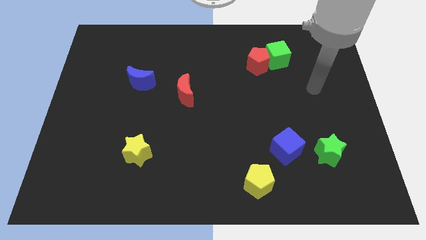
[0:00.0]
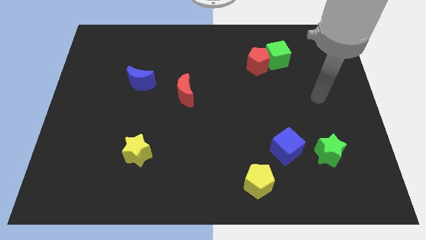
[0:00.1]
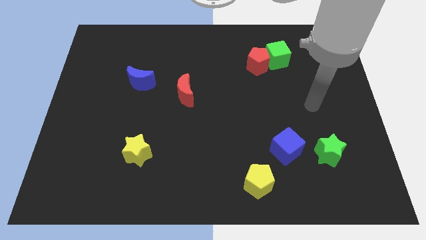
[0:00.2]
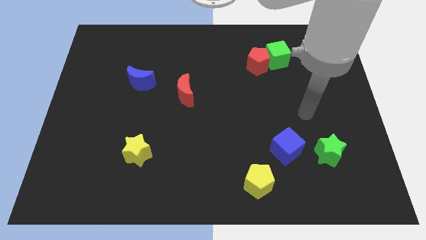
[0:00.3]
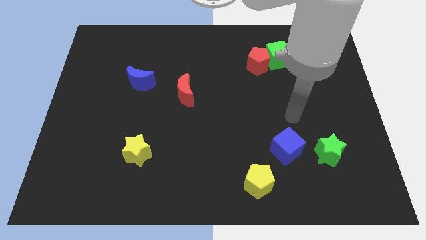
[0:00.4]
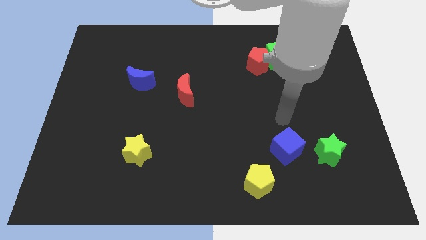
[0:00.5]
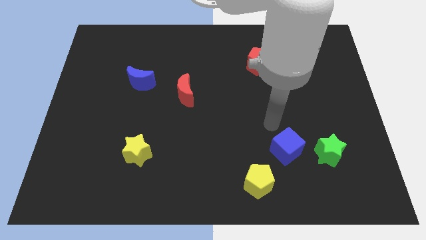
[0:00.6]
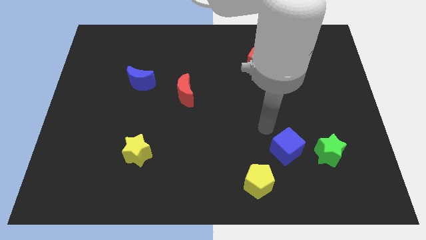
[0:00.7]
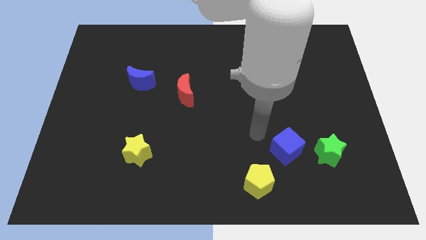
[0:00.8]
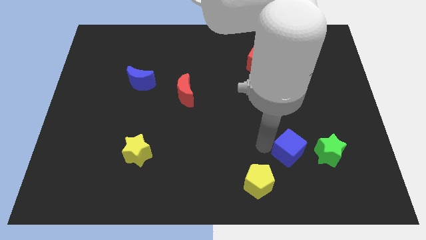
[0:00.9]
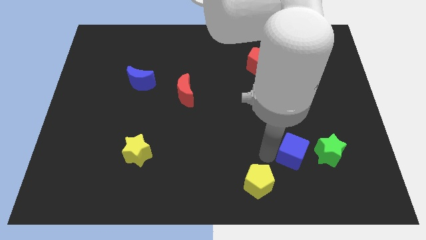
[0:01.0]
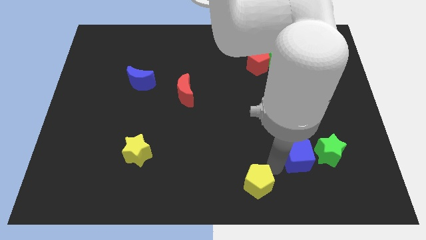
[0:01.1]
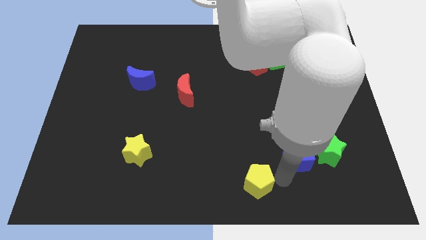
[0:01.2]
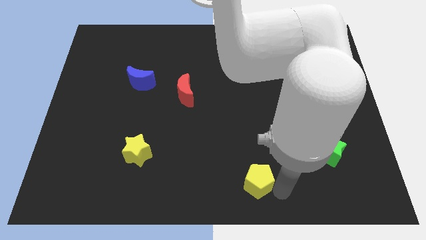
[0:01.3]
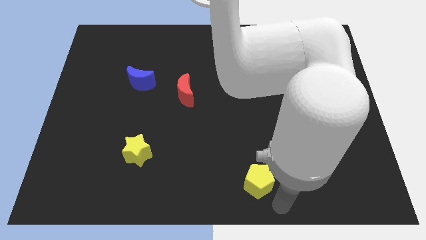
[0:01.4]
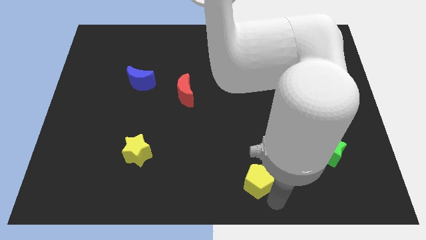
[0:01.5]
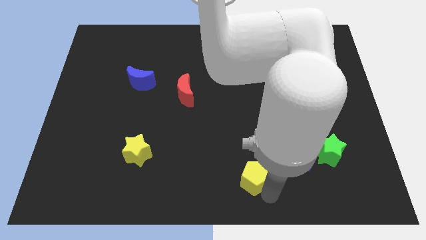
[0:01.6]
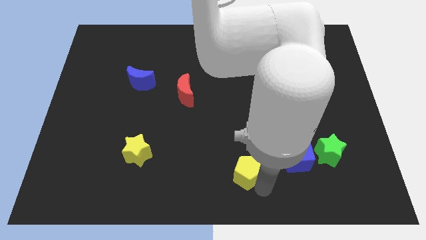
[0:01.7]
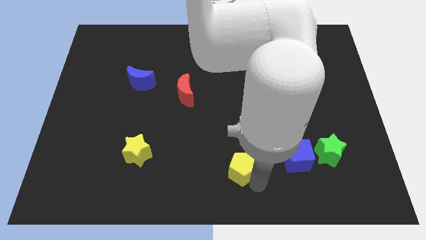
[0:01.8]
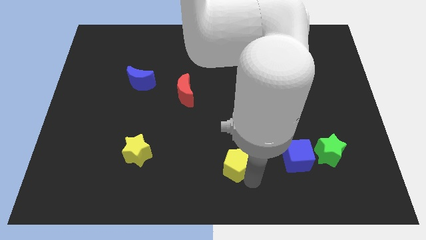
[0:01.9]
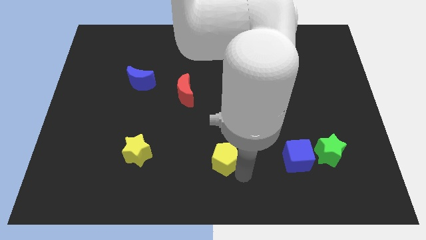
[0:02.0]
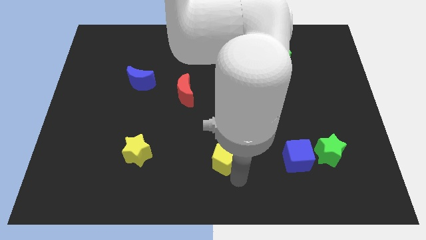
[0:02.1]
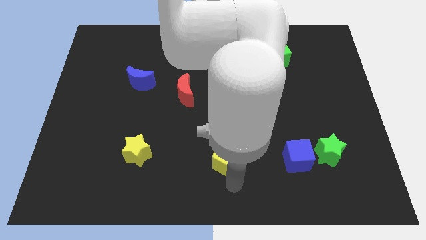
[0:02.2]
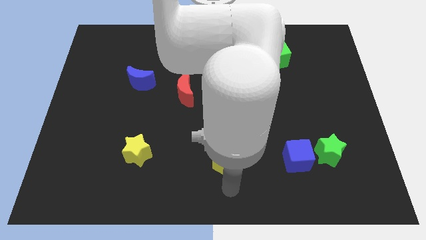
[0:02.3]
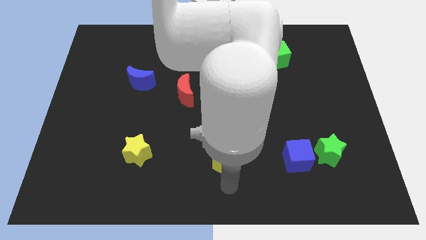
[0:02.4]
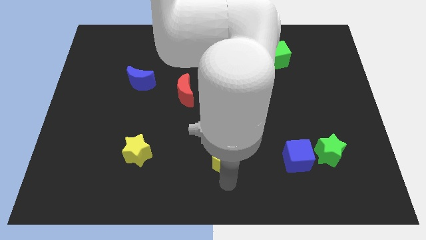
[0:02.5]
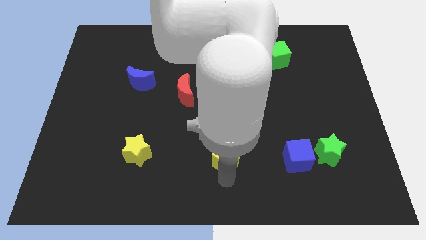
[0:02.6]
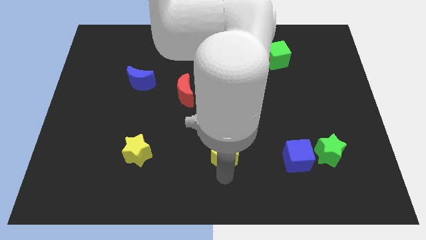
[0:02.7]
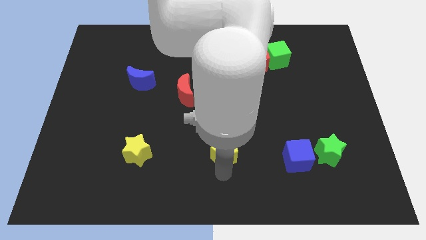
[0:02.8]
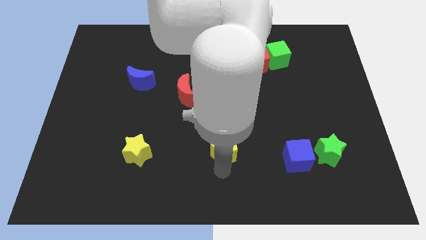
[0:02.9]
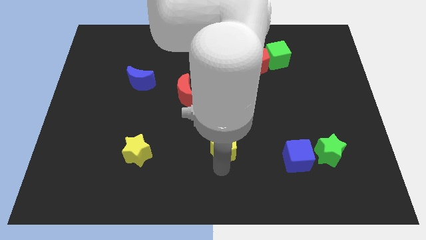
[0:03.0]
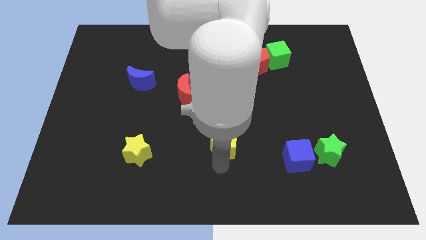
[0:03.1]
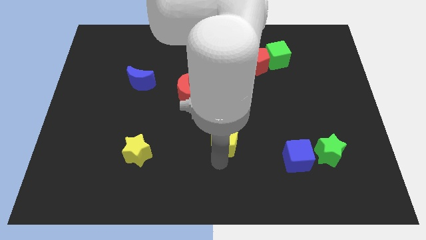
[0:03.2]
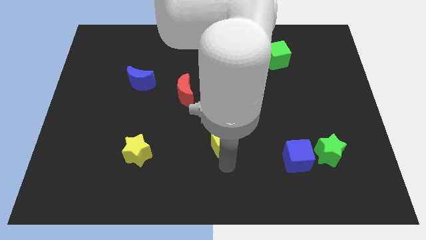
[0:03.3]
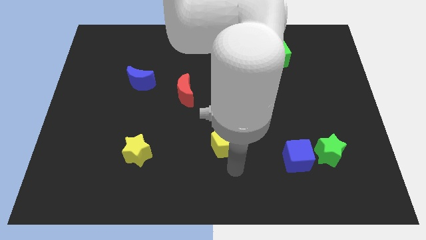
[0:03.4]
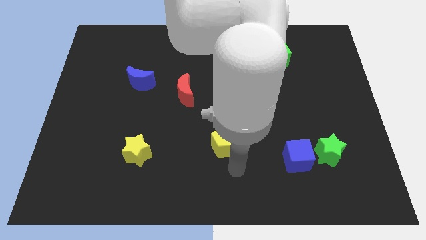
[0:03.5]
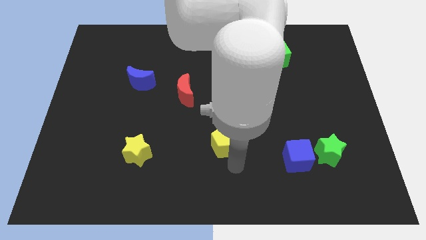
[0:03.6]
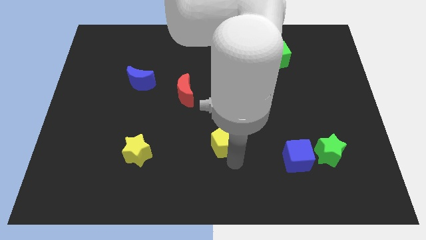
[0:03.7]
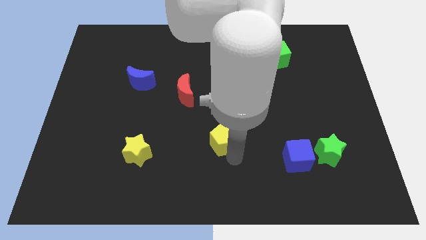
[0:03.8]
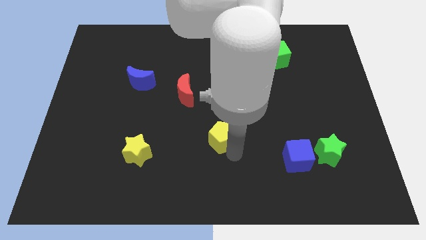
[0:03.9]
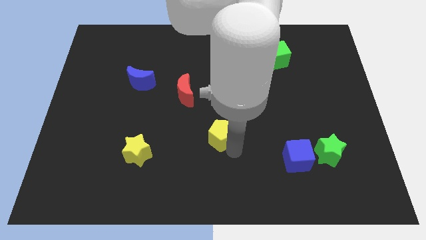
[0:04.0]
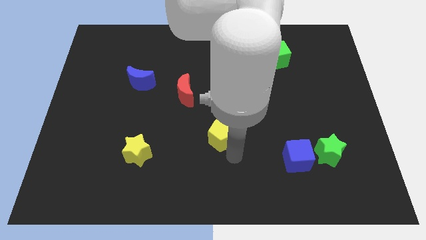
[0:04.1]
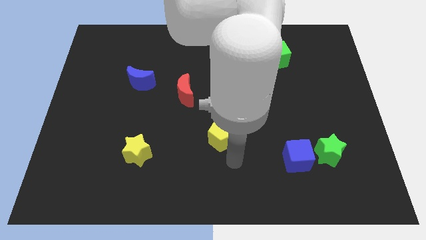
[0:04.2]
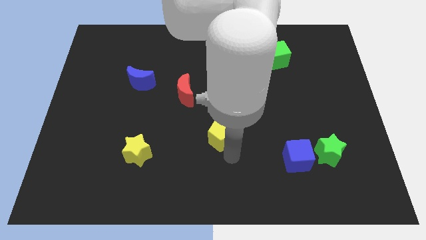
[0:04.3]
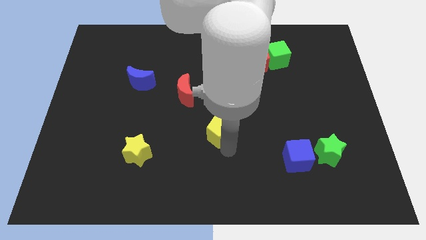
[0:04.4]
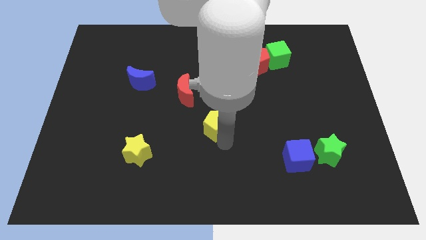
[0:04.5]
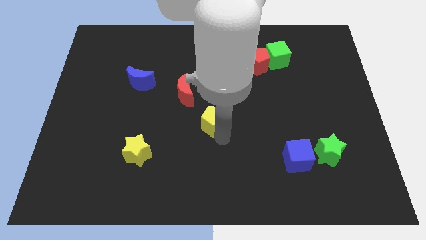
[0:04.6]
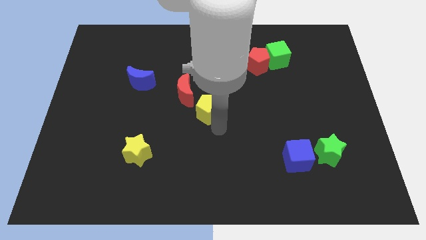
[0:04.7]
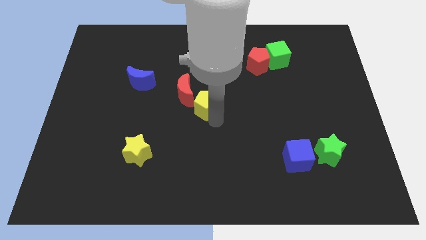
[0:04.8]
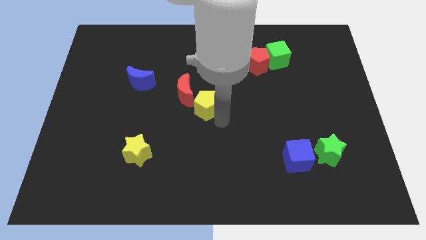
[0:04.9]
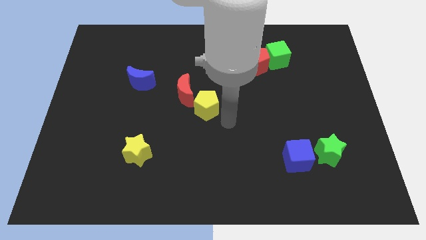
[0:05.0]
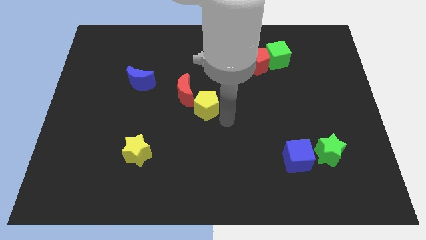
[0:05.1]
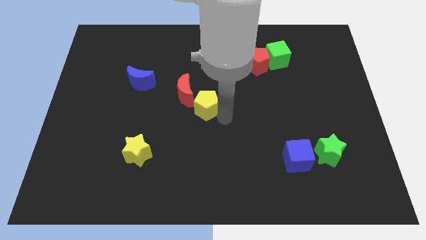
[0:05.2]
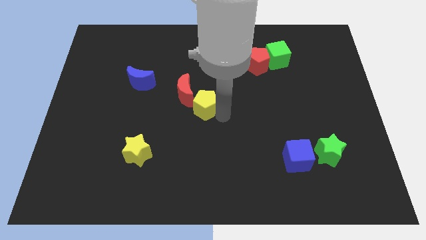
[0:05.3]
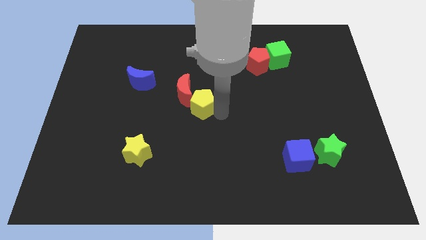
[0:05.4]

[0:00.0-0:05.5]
slide the yellow pentagon to the red moon

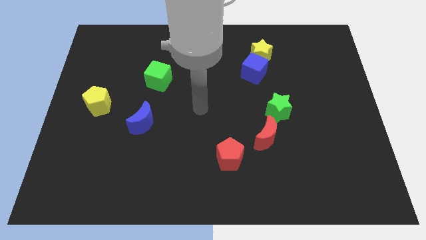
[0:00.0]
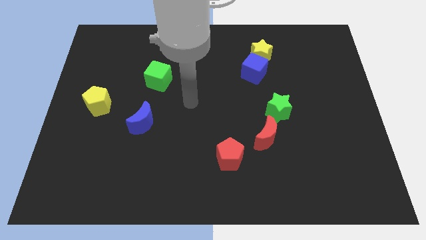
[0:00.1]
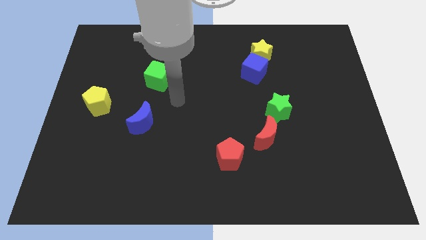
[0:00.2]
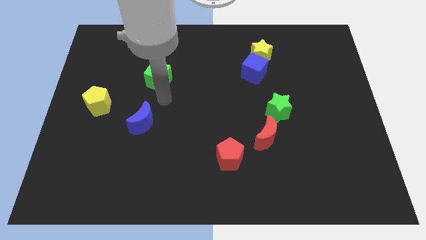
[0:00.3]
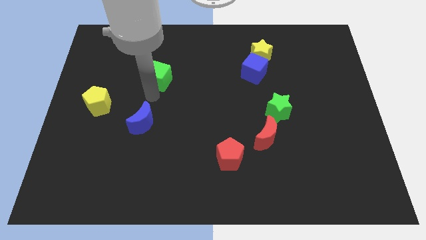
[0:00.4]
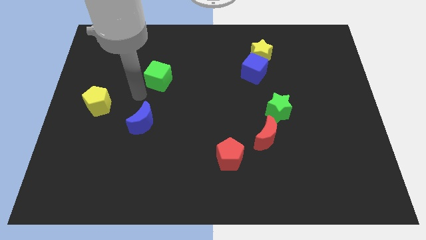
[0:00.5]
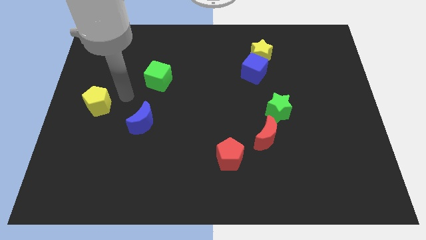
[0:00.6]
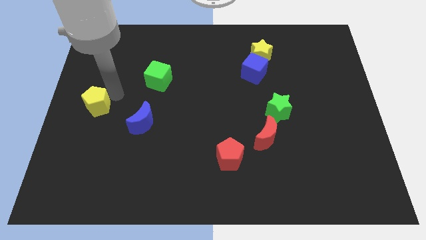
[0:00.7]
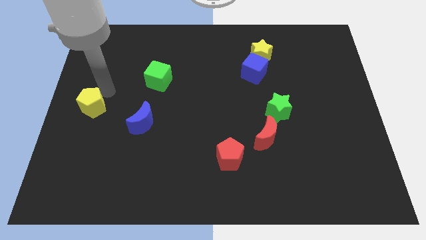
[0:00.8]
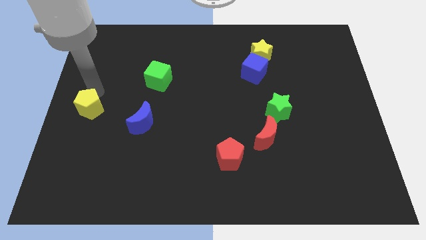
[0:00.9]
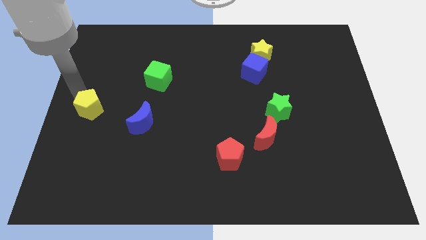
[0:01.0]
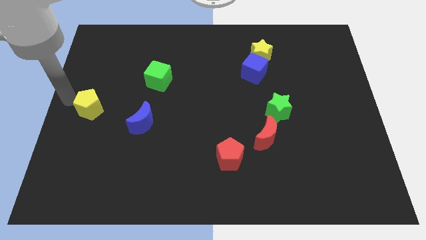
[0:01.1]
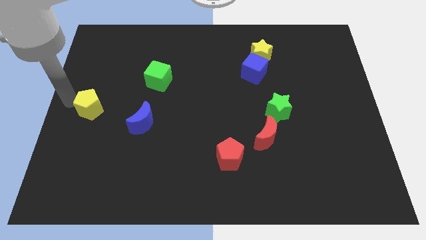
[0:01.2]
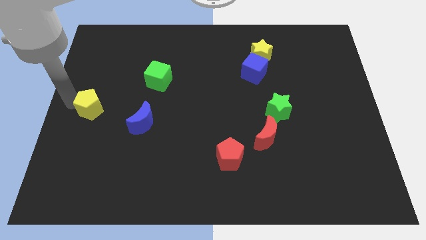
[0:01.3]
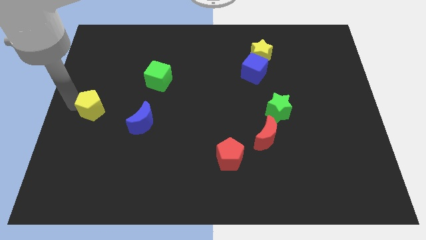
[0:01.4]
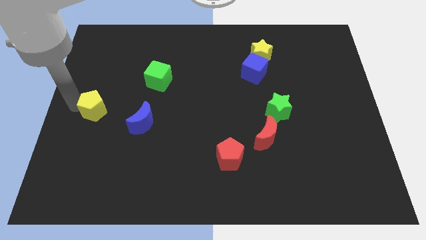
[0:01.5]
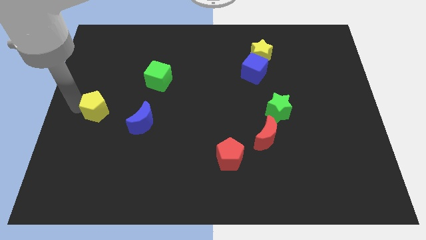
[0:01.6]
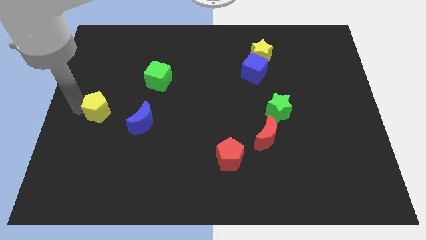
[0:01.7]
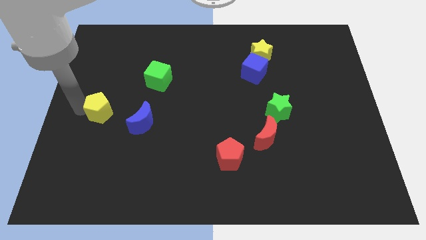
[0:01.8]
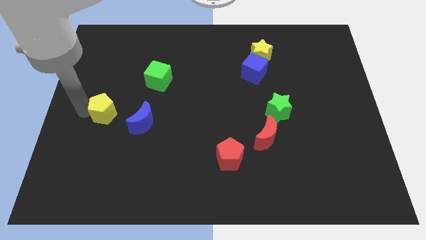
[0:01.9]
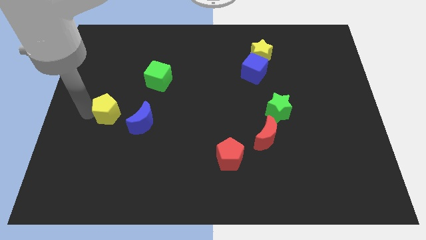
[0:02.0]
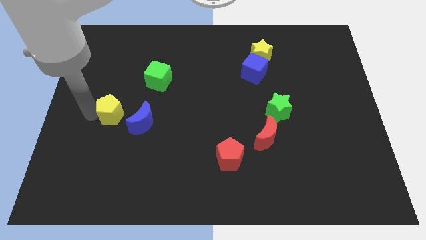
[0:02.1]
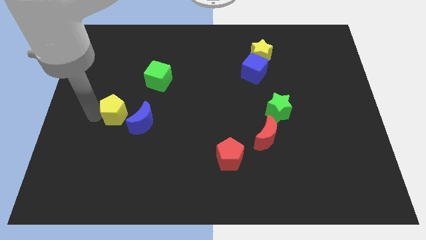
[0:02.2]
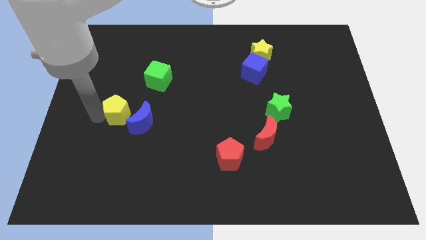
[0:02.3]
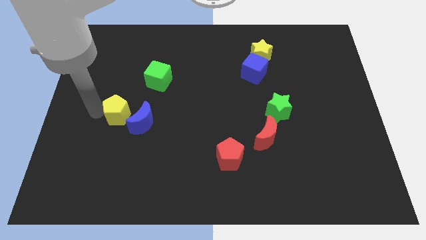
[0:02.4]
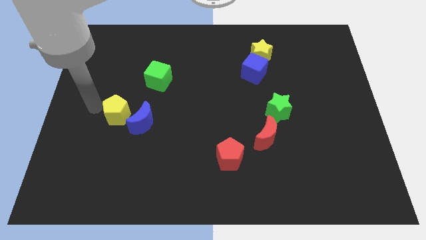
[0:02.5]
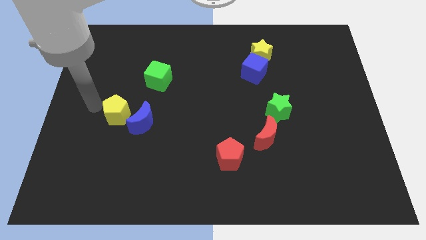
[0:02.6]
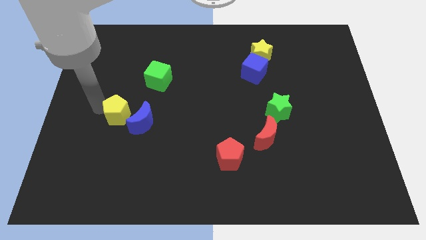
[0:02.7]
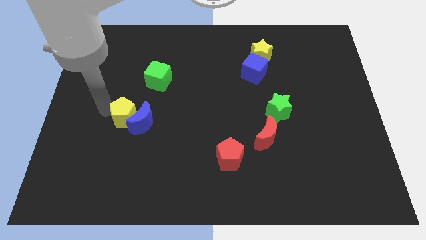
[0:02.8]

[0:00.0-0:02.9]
push the yellow pentagon close to the blue moon
